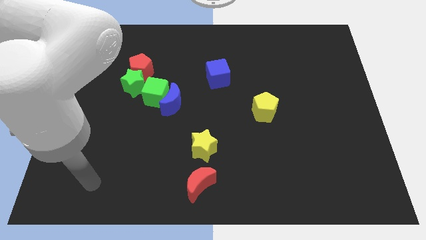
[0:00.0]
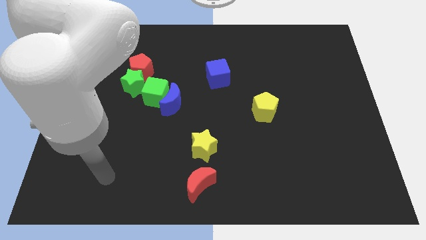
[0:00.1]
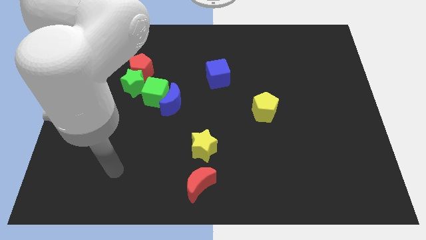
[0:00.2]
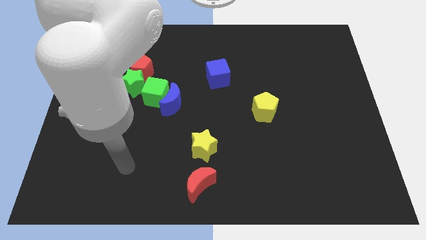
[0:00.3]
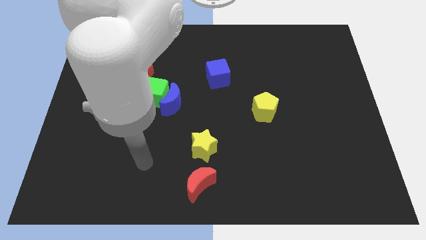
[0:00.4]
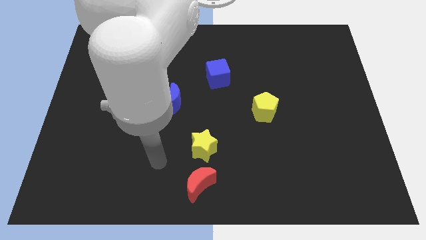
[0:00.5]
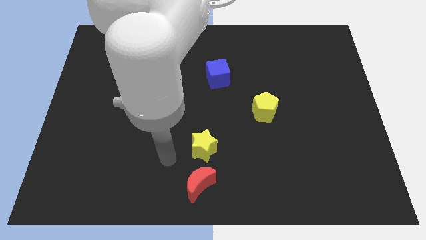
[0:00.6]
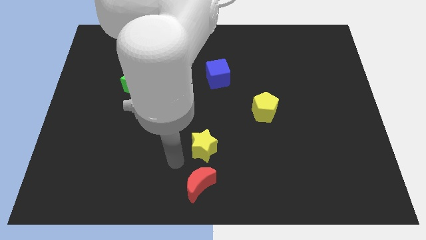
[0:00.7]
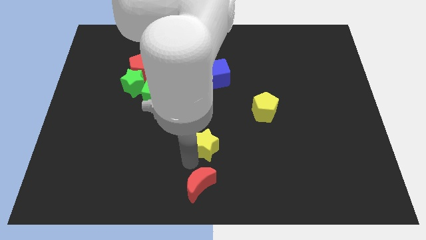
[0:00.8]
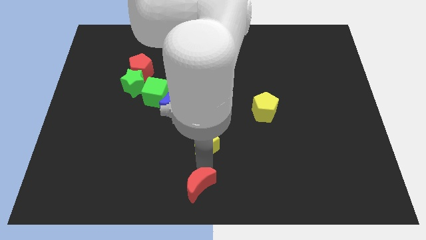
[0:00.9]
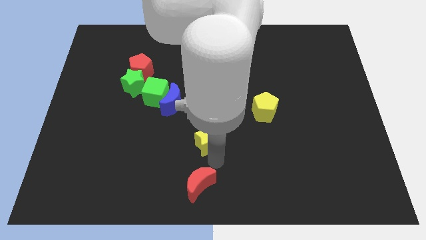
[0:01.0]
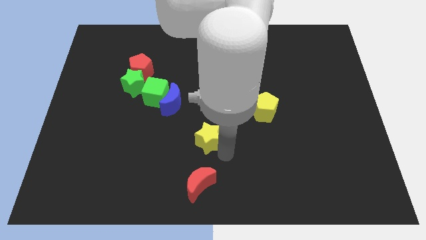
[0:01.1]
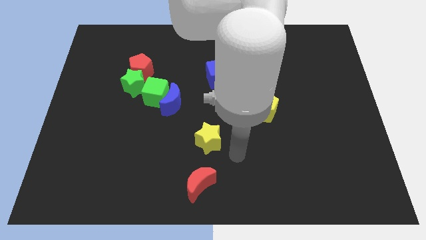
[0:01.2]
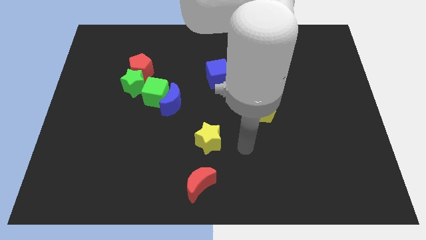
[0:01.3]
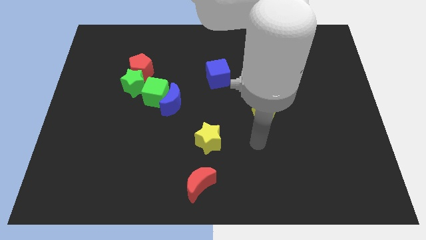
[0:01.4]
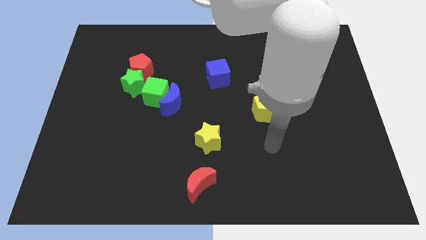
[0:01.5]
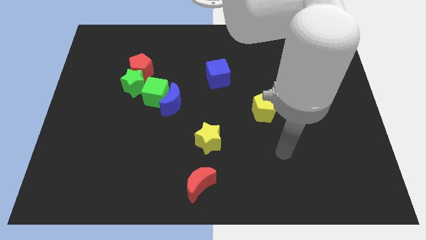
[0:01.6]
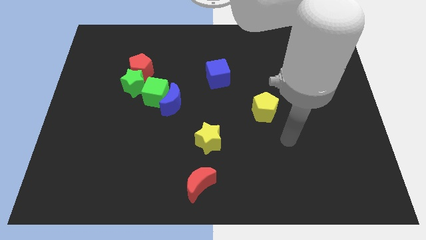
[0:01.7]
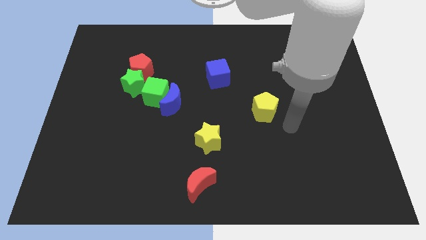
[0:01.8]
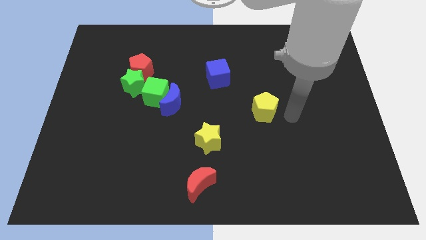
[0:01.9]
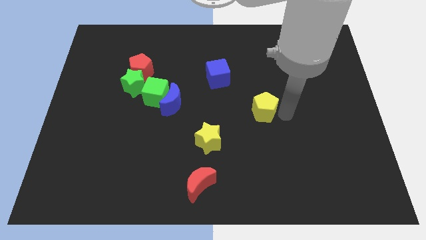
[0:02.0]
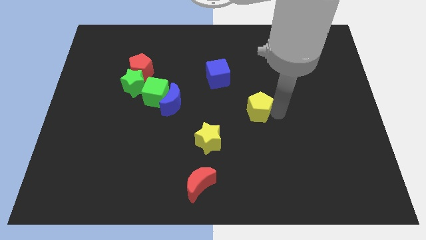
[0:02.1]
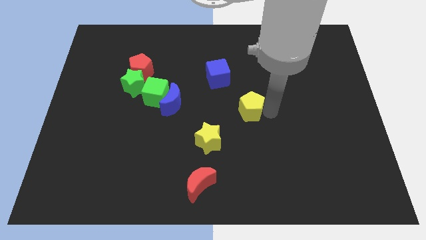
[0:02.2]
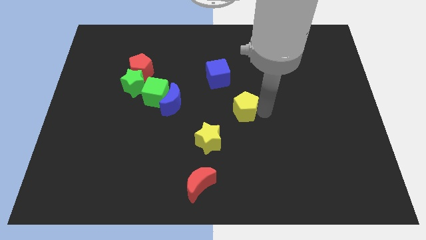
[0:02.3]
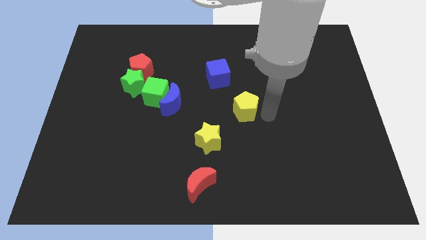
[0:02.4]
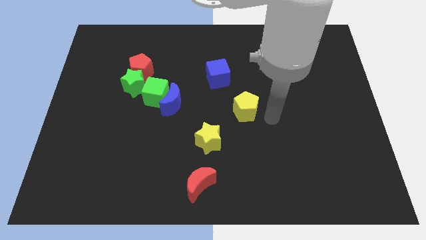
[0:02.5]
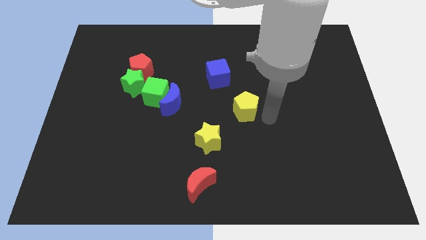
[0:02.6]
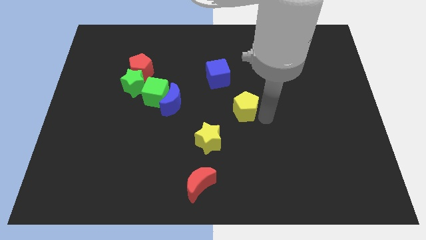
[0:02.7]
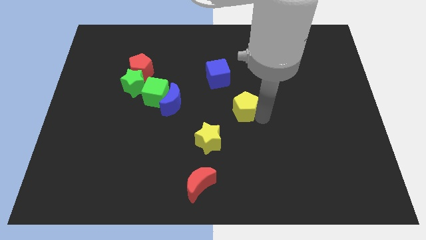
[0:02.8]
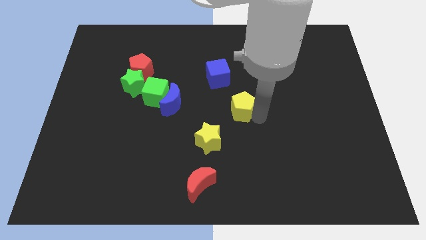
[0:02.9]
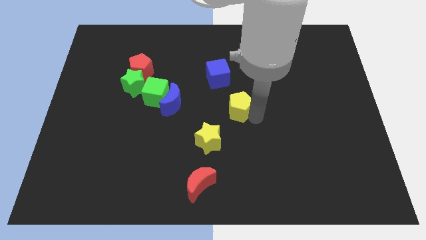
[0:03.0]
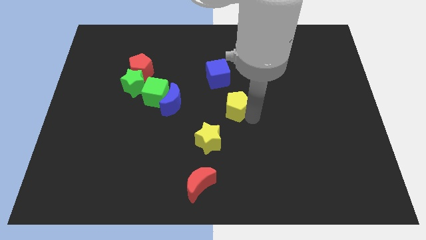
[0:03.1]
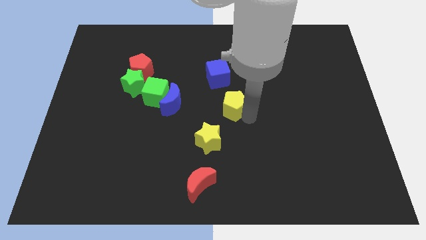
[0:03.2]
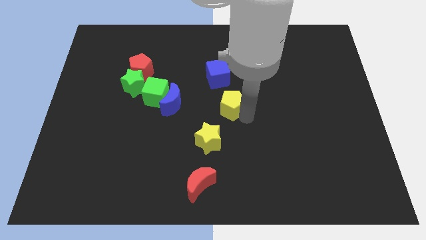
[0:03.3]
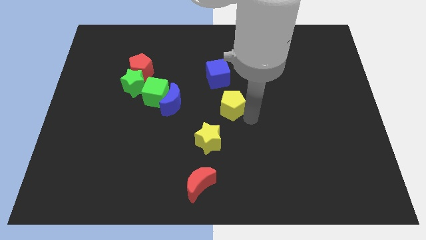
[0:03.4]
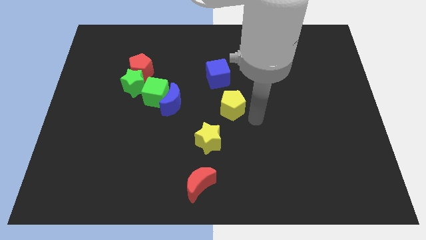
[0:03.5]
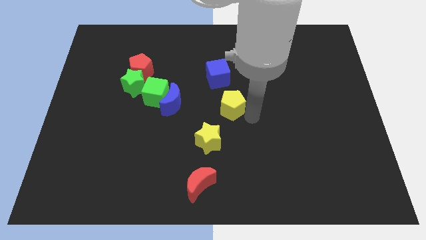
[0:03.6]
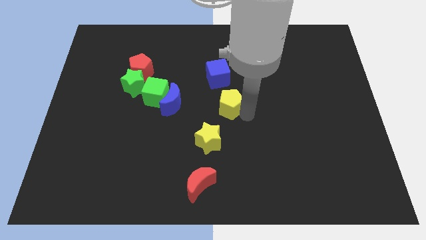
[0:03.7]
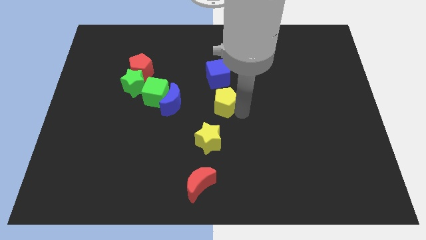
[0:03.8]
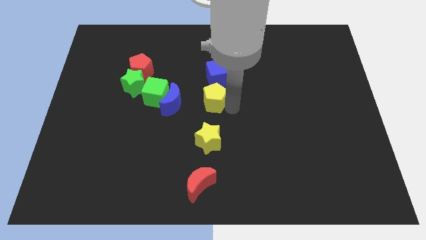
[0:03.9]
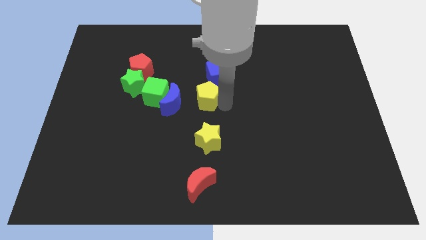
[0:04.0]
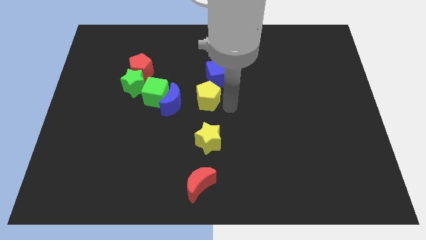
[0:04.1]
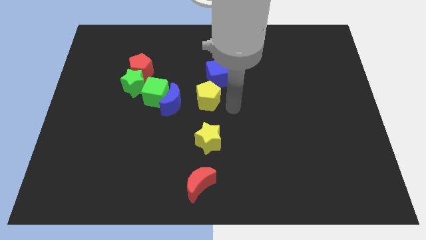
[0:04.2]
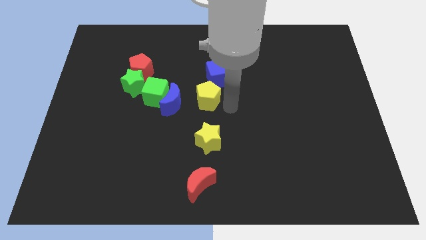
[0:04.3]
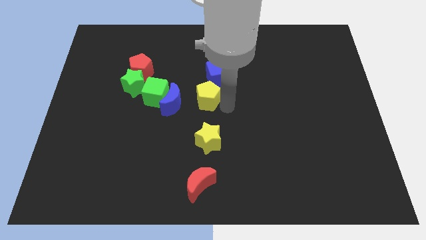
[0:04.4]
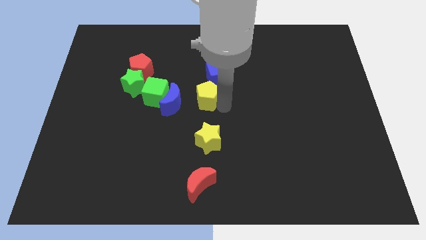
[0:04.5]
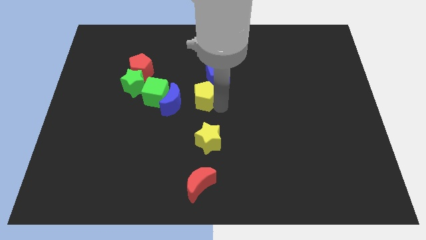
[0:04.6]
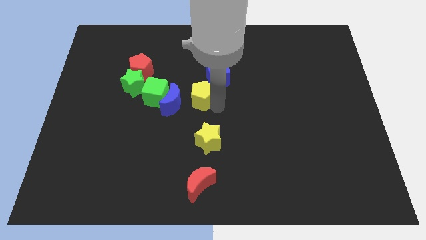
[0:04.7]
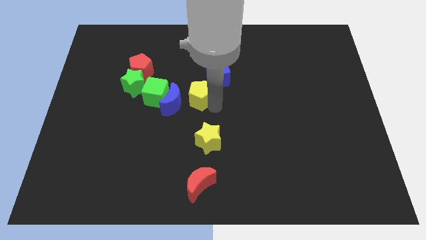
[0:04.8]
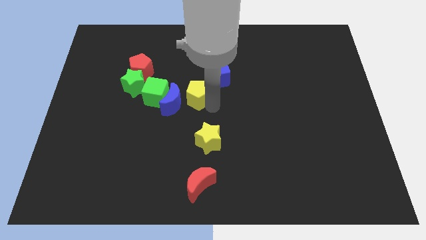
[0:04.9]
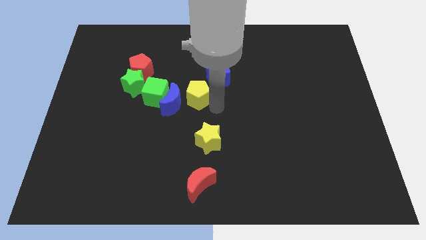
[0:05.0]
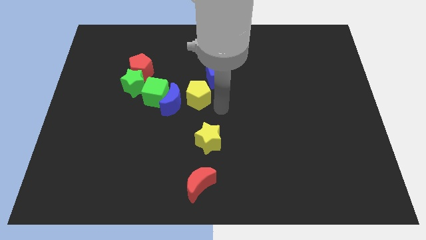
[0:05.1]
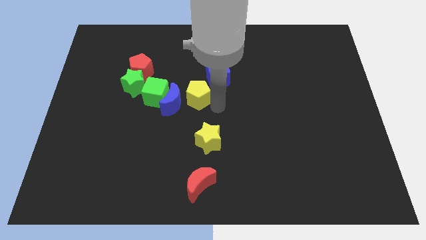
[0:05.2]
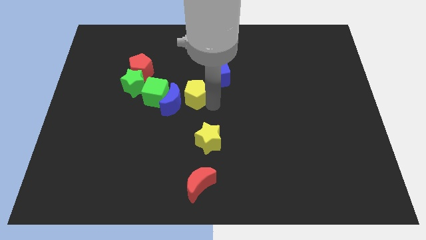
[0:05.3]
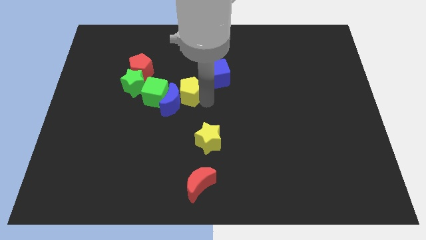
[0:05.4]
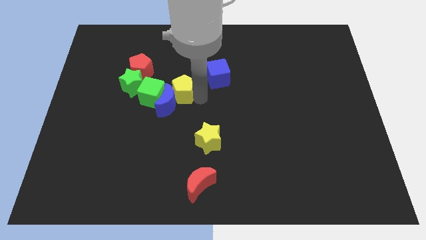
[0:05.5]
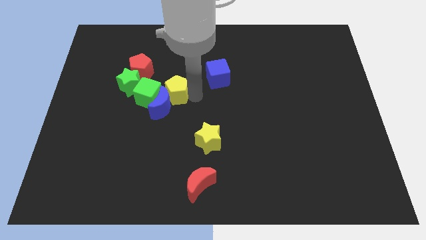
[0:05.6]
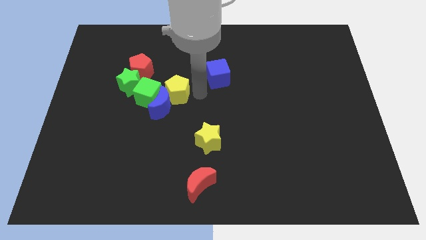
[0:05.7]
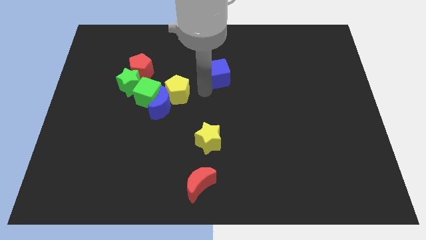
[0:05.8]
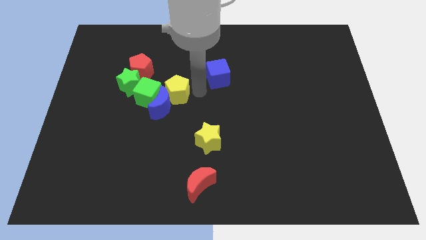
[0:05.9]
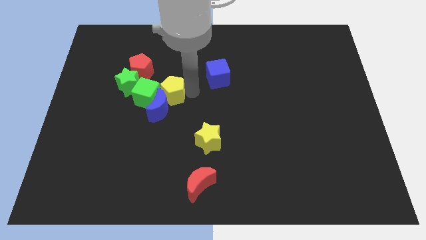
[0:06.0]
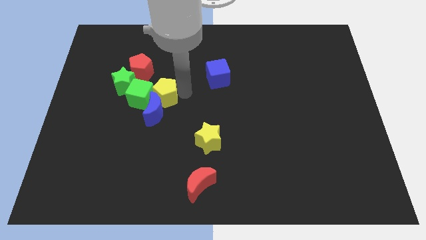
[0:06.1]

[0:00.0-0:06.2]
put the yellow pentagon next to the green cube
